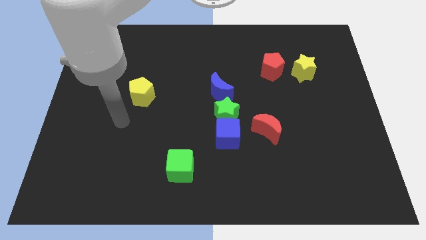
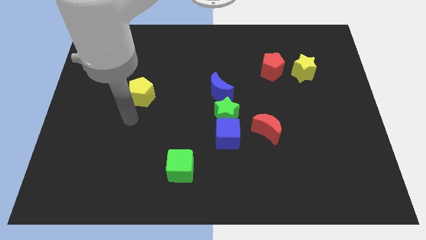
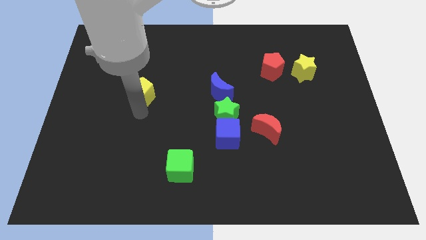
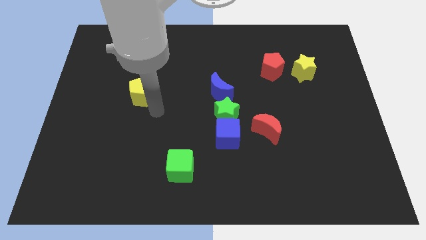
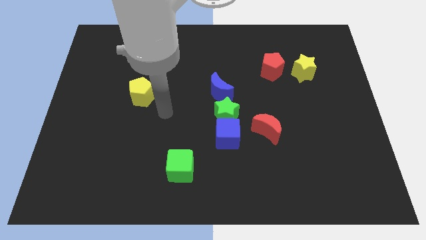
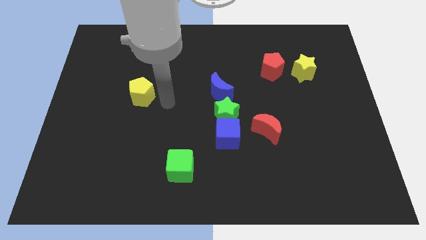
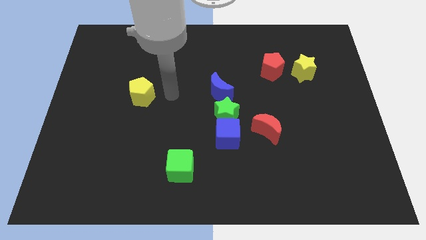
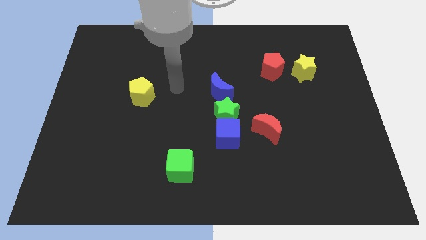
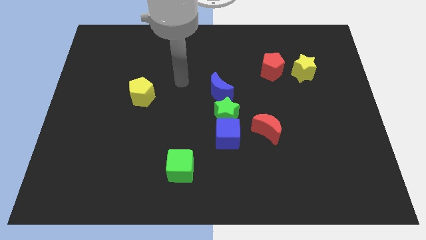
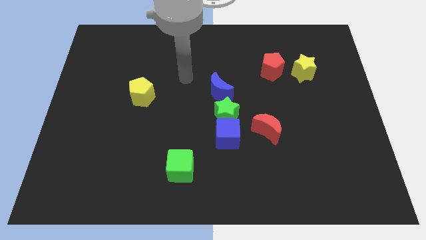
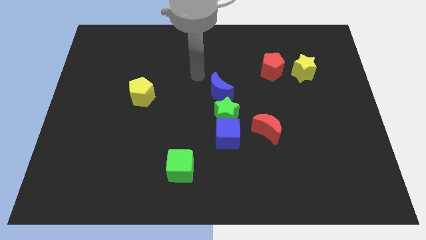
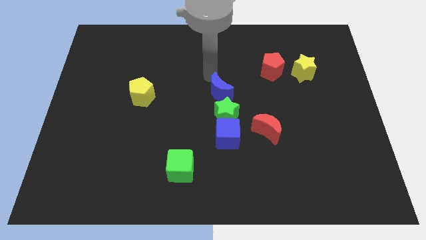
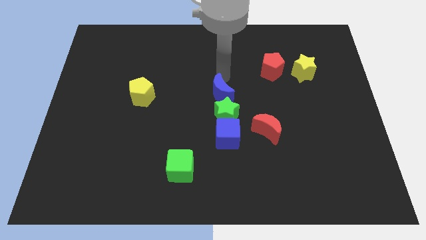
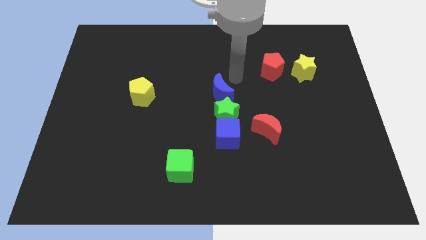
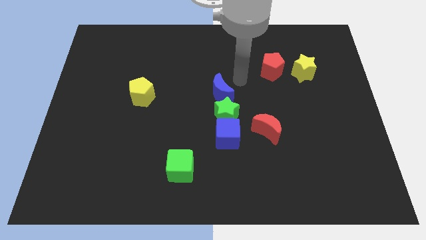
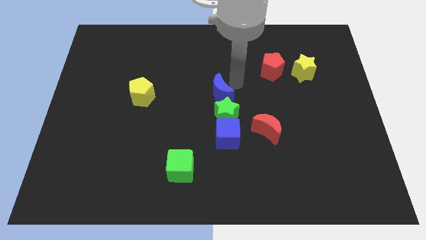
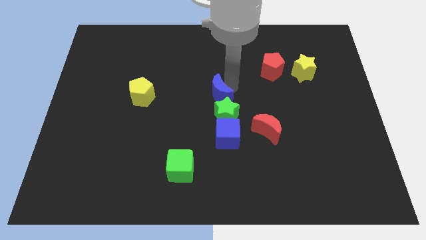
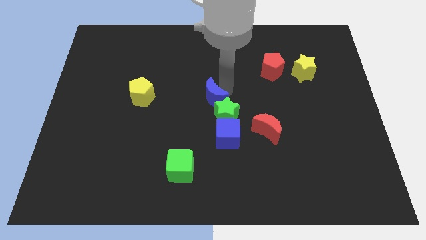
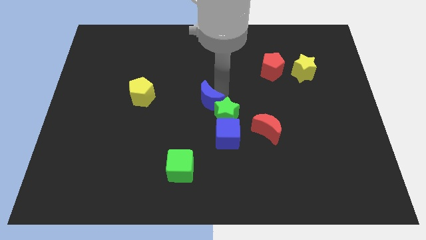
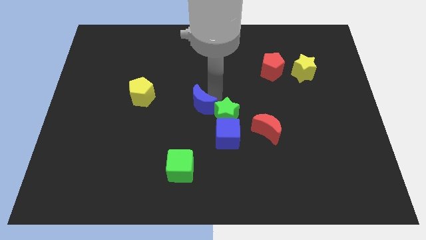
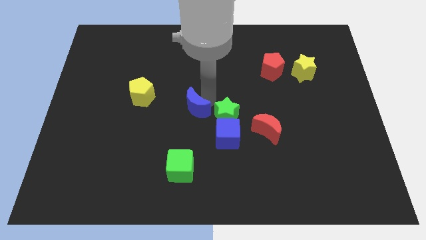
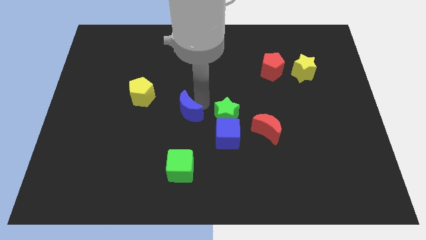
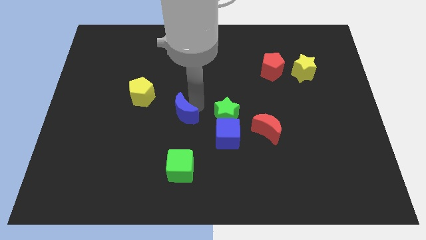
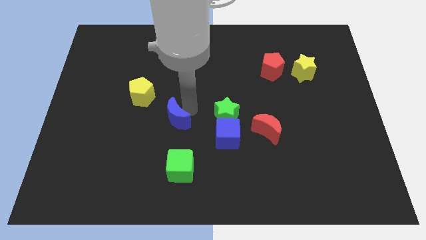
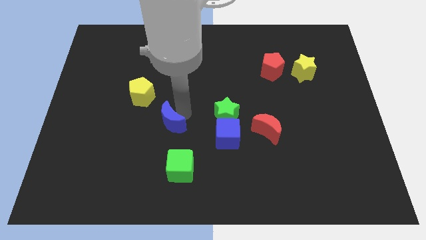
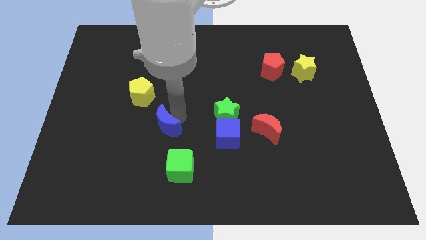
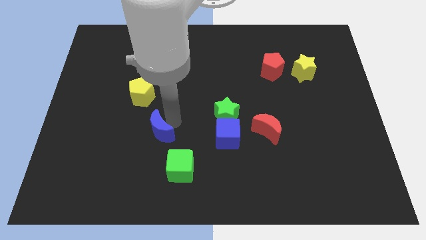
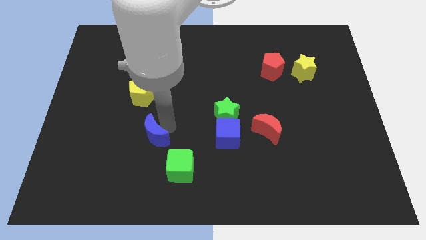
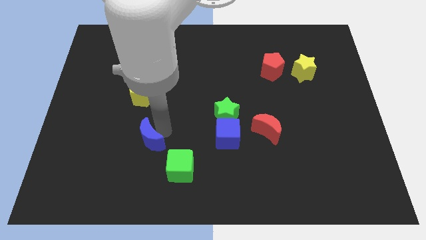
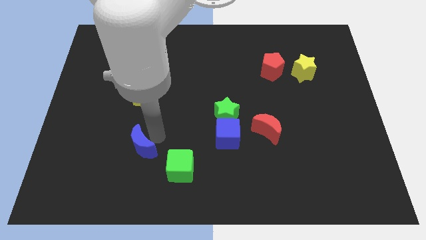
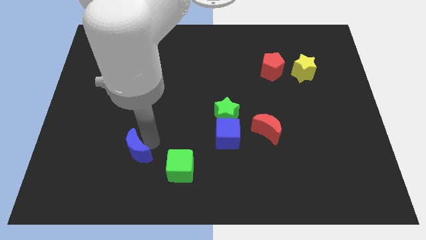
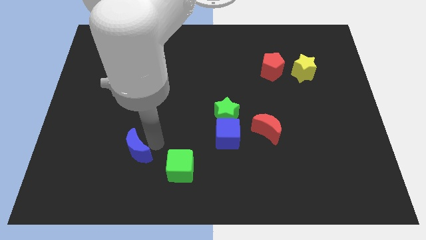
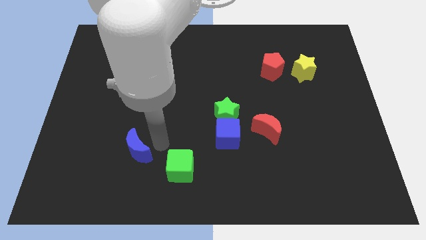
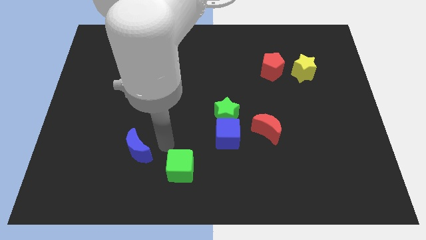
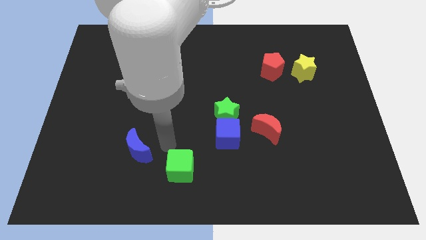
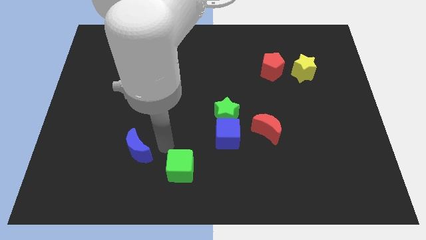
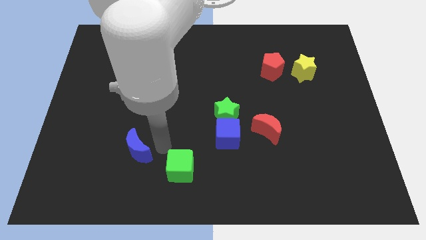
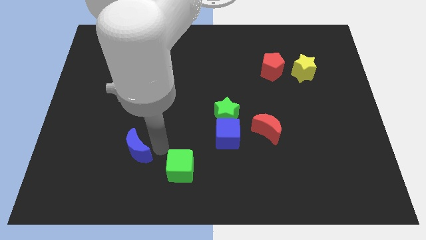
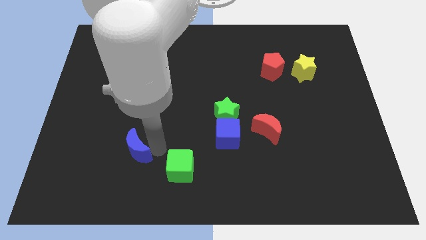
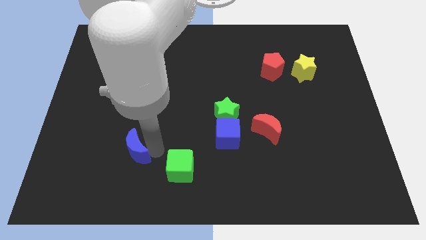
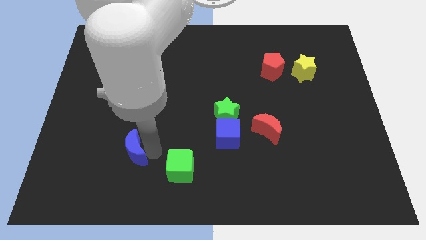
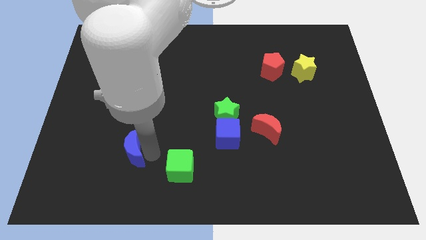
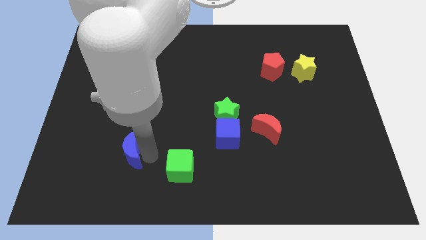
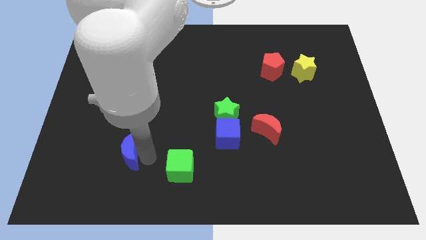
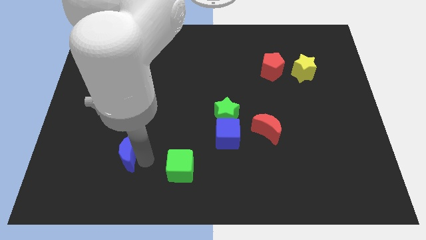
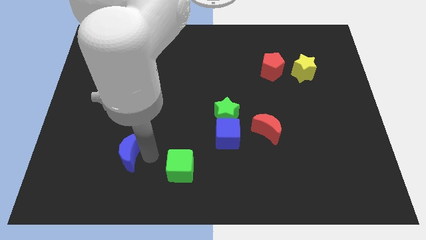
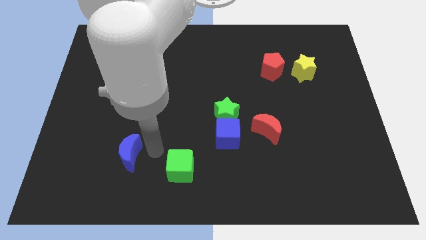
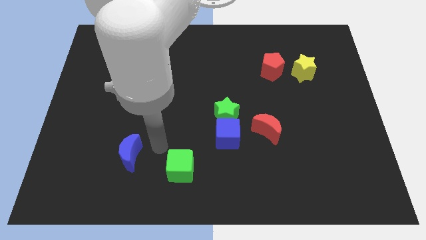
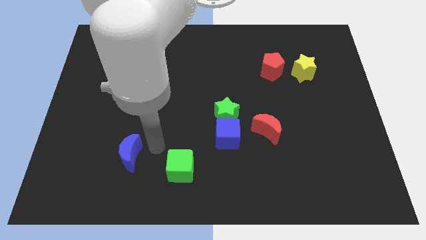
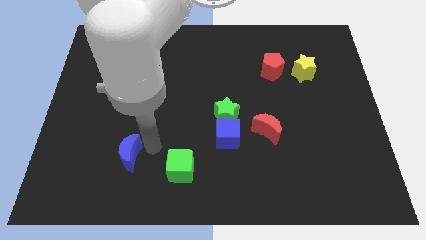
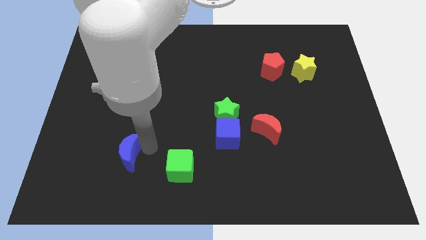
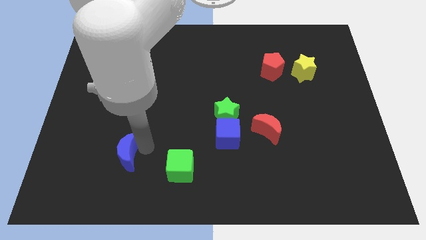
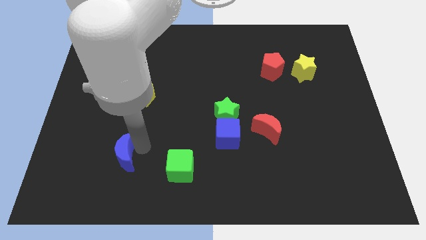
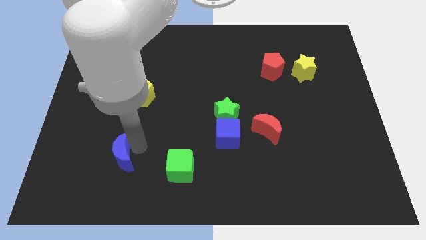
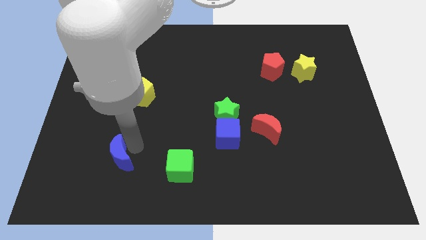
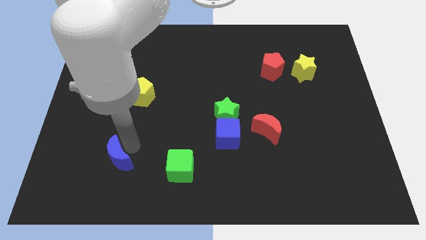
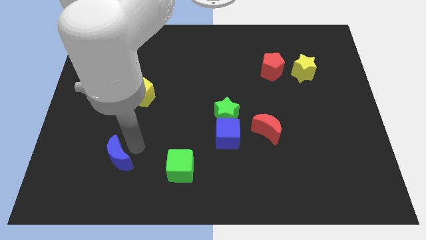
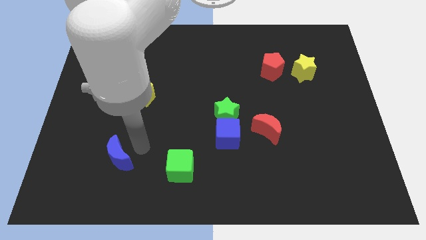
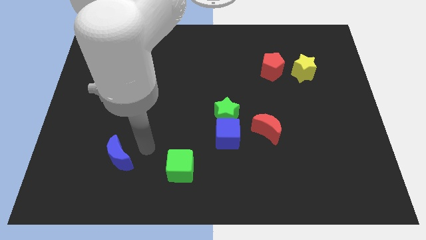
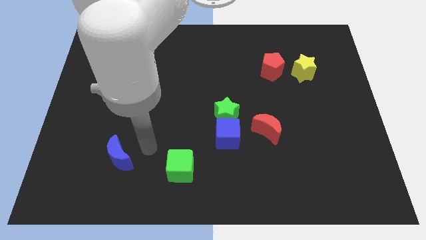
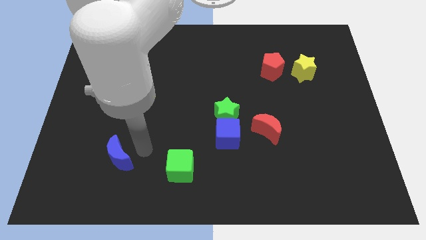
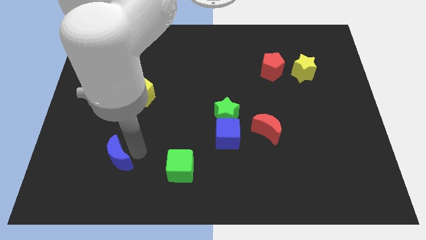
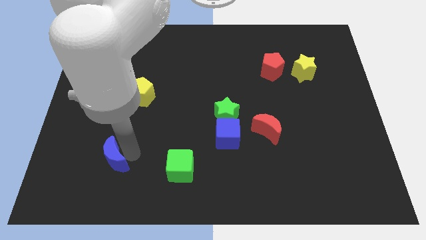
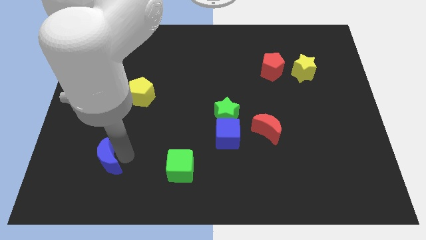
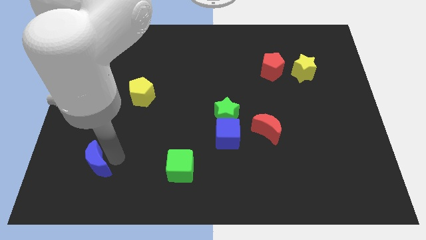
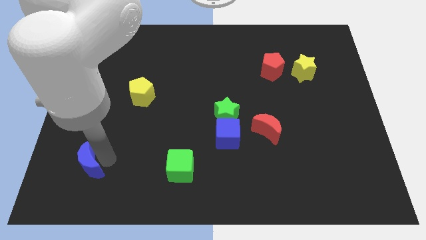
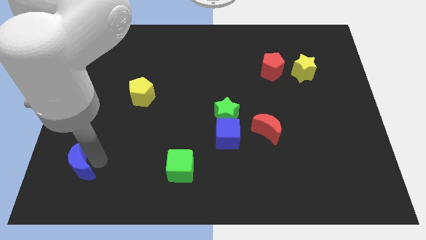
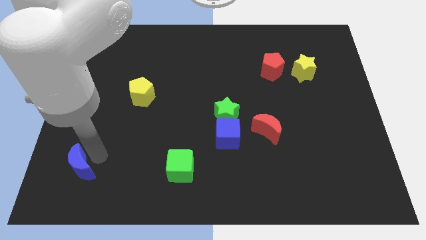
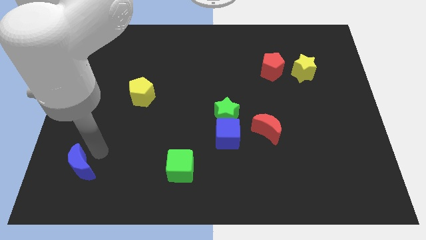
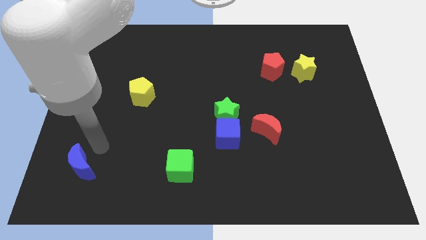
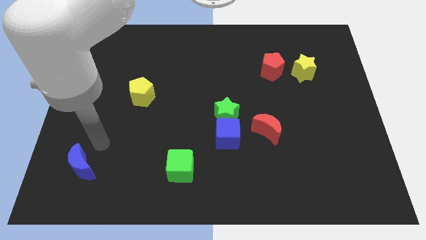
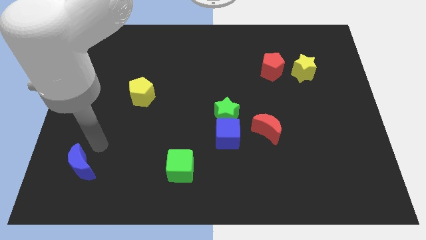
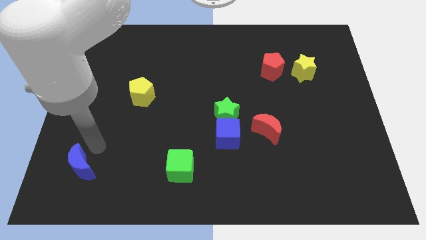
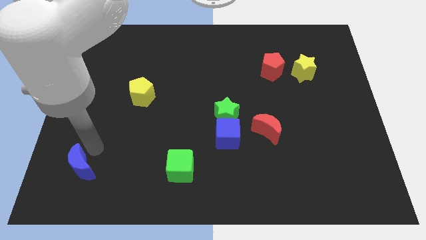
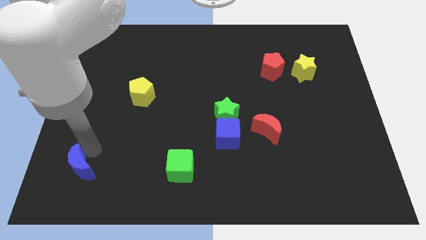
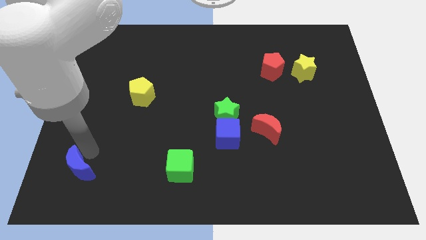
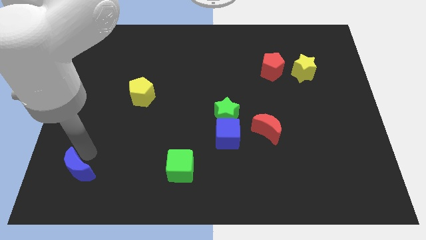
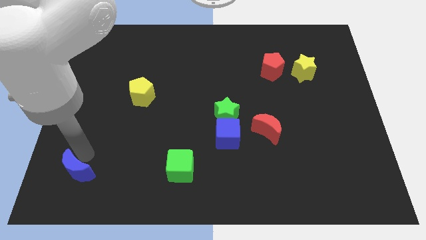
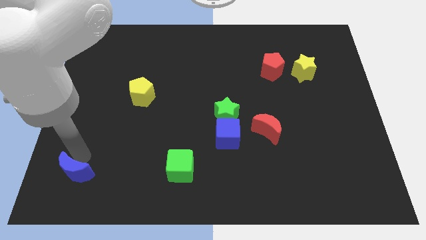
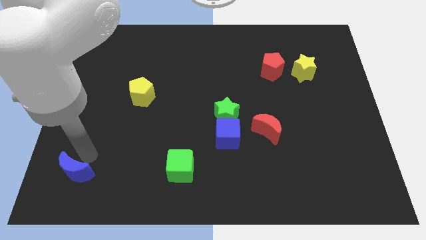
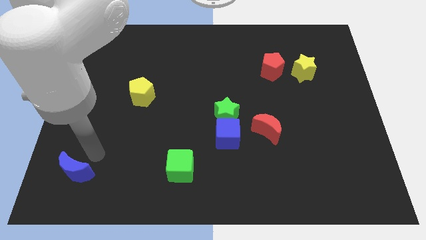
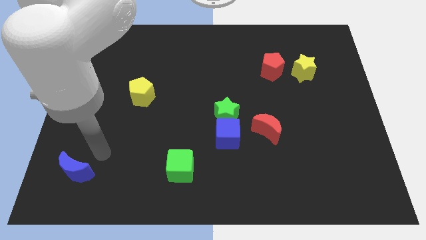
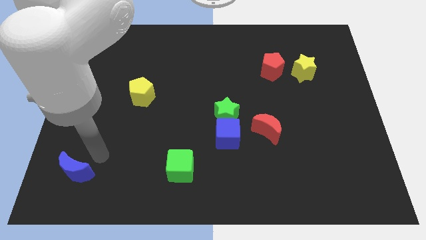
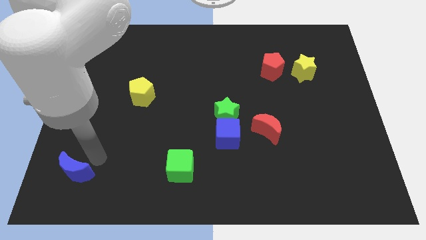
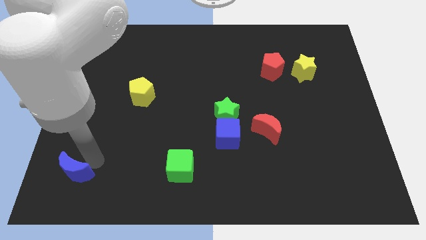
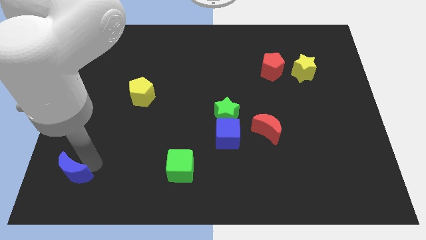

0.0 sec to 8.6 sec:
slide the blue moon to the bottom left of the board
